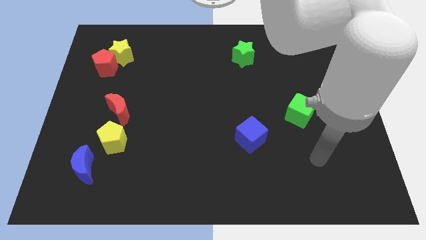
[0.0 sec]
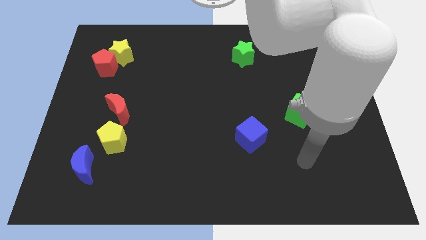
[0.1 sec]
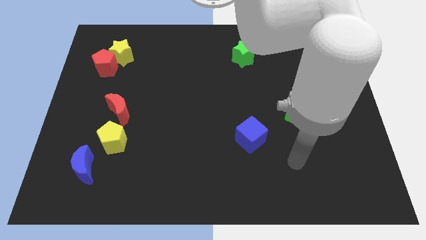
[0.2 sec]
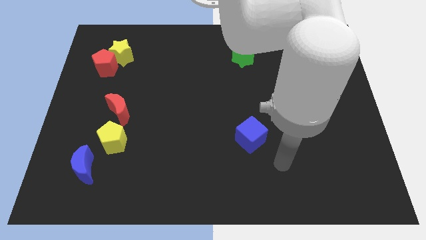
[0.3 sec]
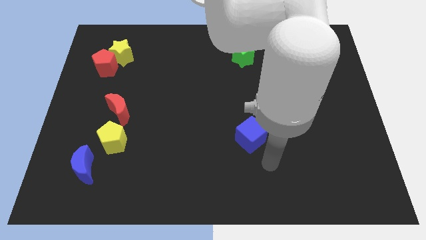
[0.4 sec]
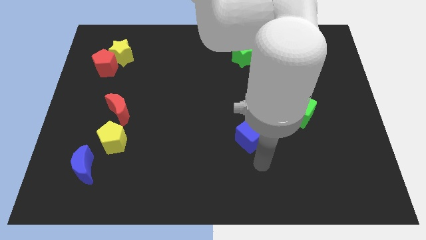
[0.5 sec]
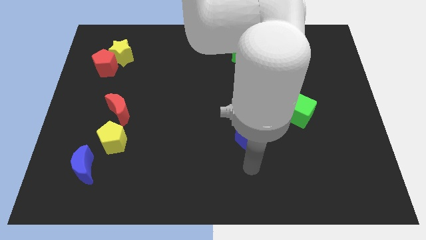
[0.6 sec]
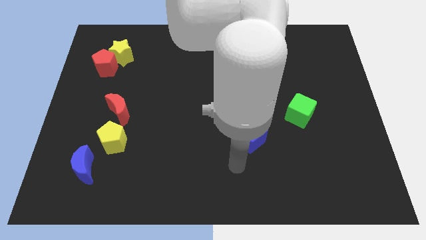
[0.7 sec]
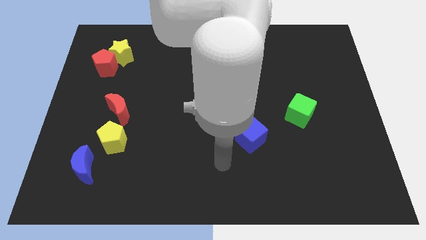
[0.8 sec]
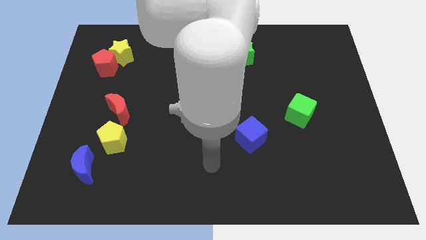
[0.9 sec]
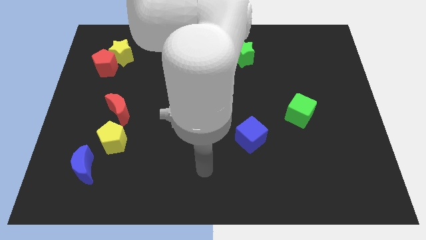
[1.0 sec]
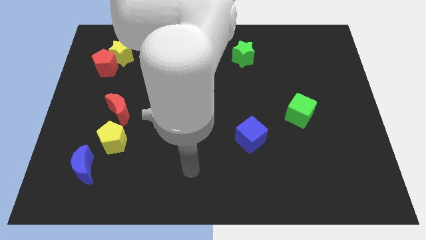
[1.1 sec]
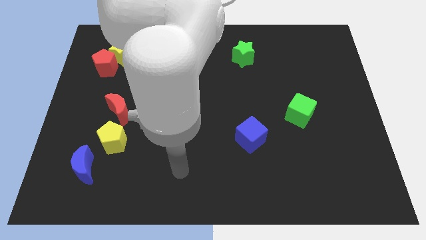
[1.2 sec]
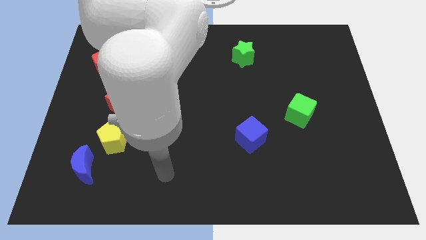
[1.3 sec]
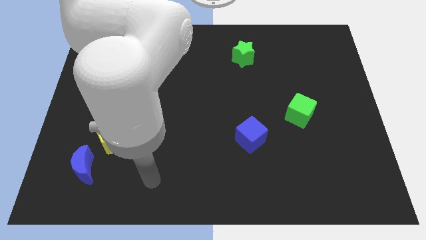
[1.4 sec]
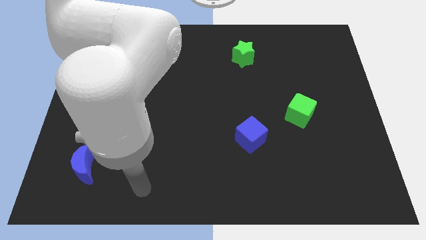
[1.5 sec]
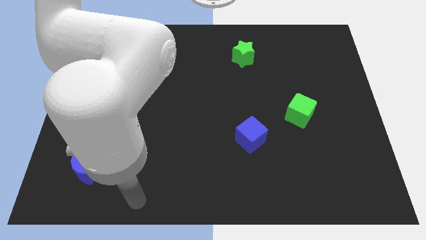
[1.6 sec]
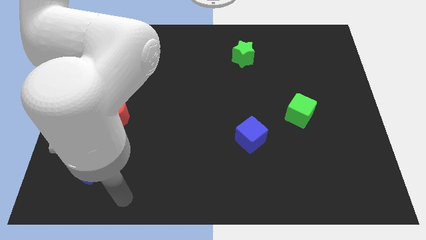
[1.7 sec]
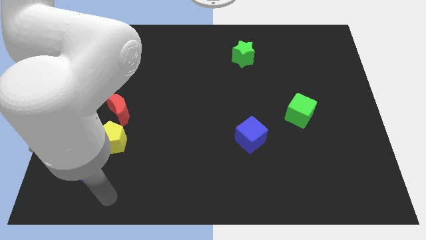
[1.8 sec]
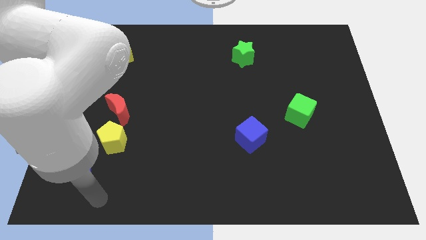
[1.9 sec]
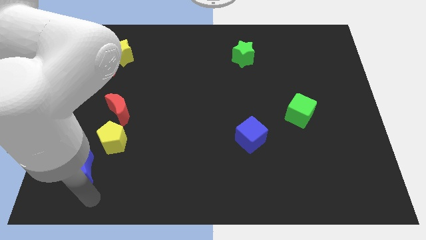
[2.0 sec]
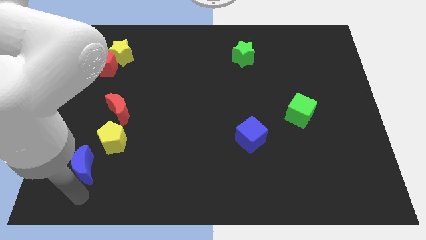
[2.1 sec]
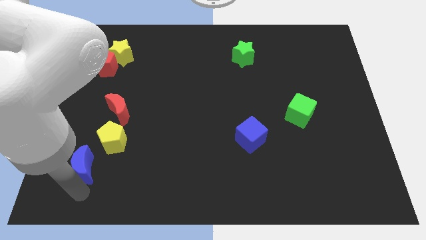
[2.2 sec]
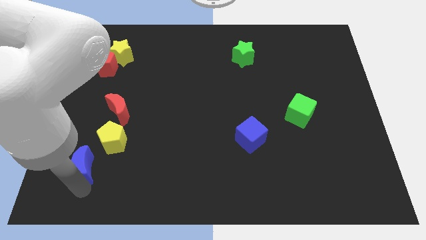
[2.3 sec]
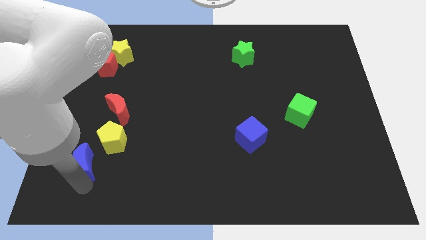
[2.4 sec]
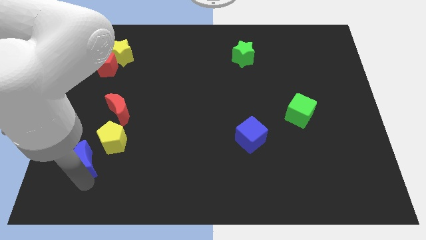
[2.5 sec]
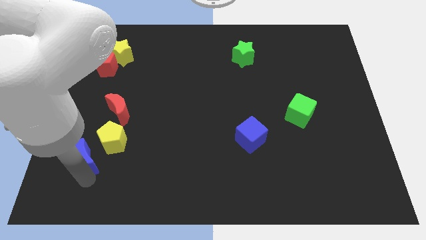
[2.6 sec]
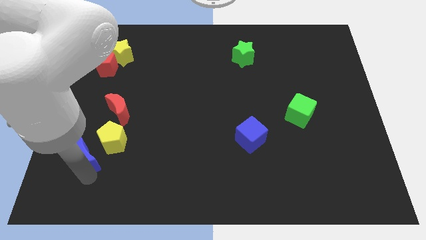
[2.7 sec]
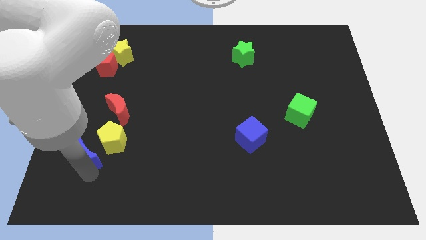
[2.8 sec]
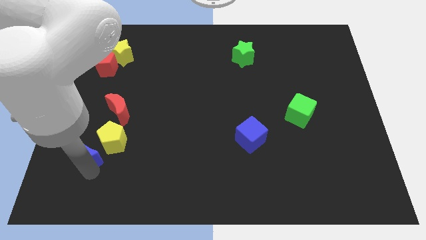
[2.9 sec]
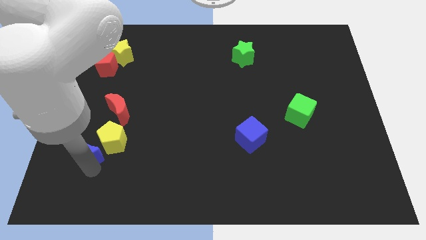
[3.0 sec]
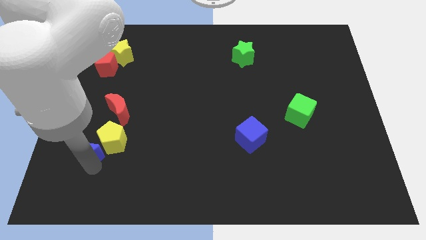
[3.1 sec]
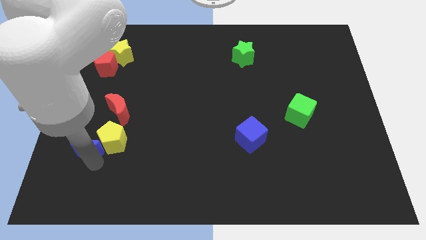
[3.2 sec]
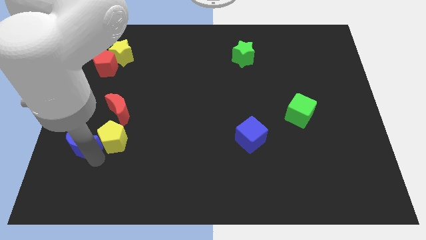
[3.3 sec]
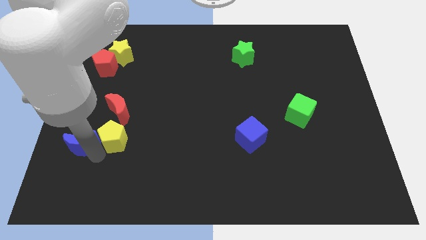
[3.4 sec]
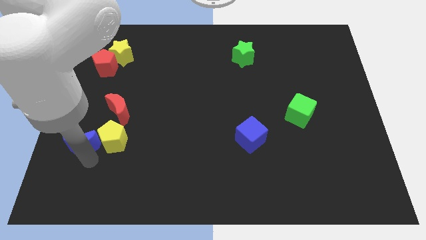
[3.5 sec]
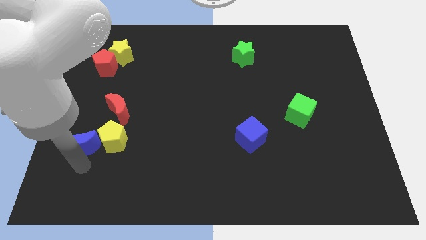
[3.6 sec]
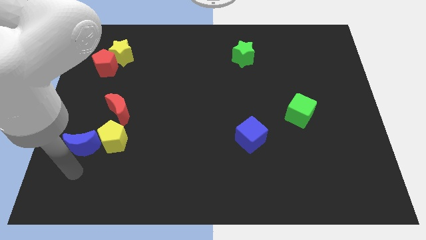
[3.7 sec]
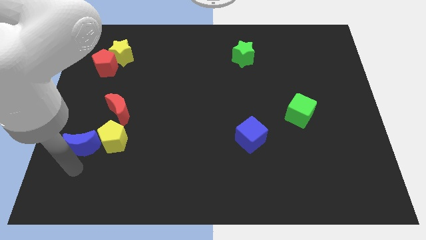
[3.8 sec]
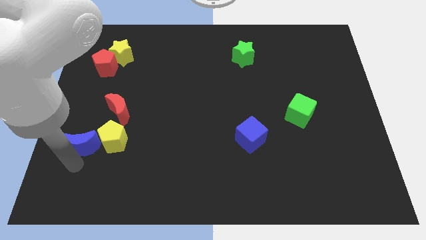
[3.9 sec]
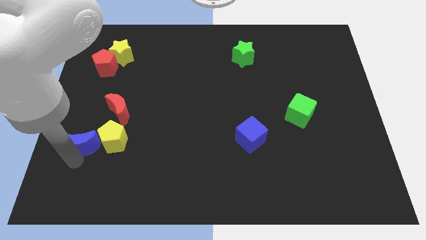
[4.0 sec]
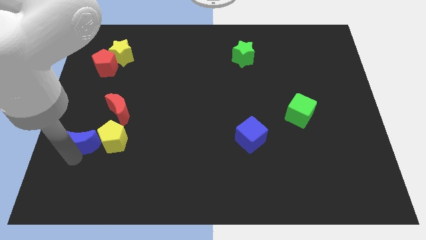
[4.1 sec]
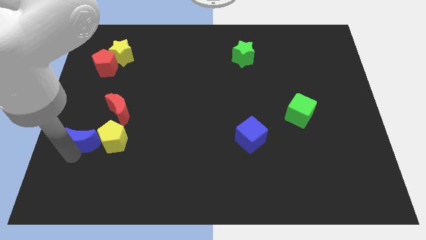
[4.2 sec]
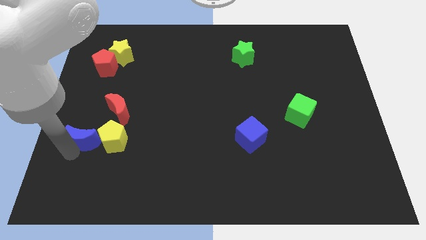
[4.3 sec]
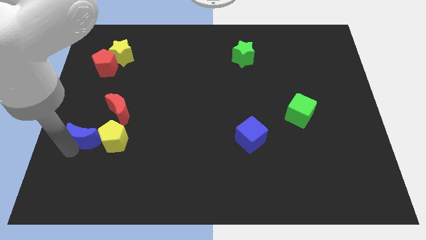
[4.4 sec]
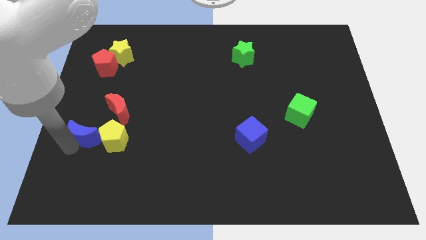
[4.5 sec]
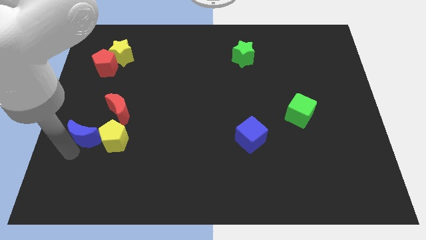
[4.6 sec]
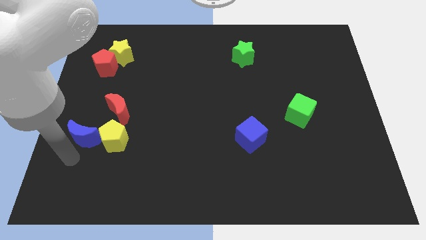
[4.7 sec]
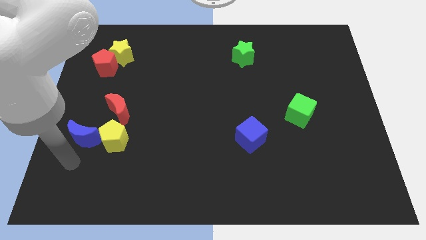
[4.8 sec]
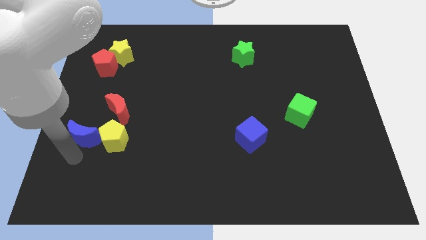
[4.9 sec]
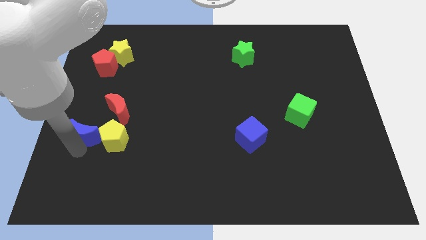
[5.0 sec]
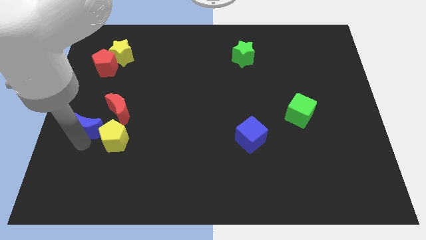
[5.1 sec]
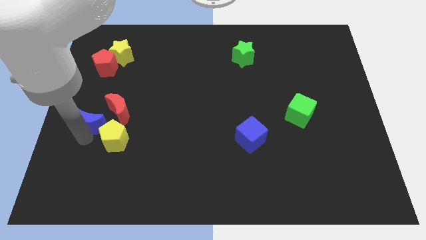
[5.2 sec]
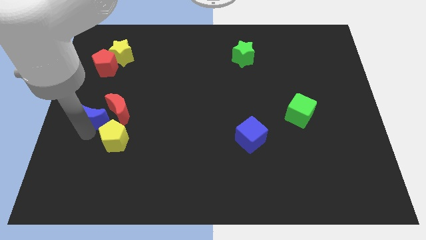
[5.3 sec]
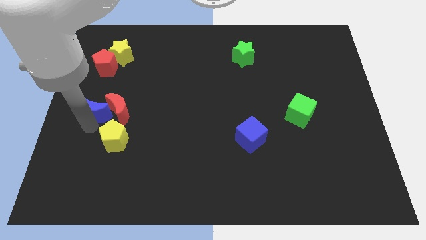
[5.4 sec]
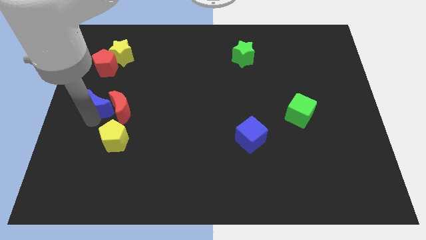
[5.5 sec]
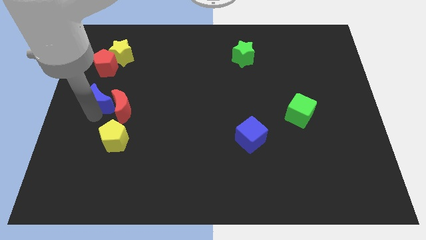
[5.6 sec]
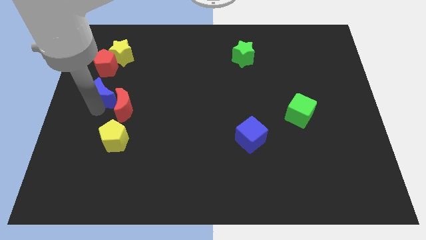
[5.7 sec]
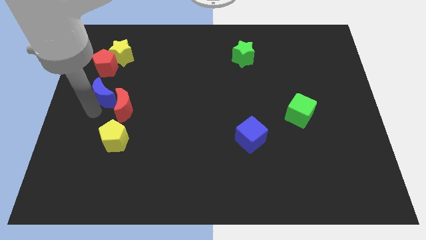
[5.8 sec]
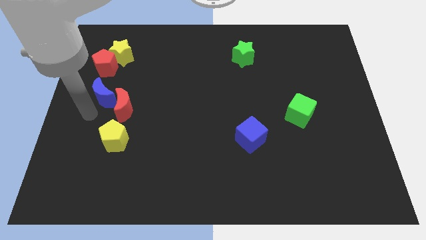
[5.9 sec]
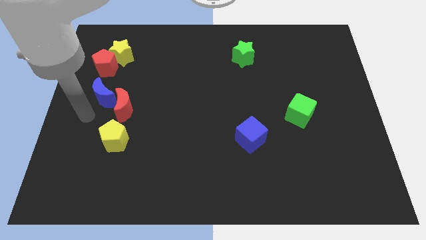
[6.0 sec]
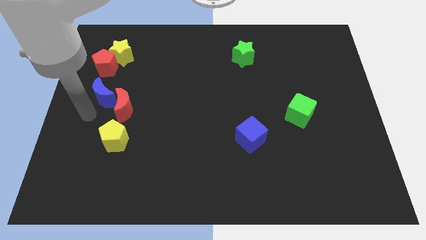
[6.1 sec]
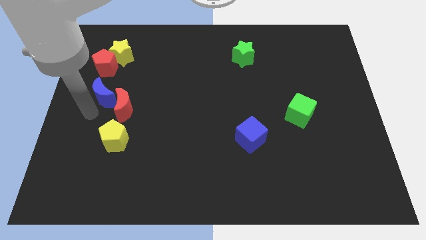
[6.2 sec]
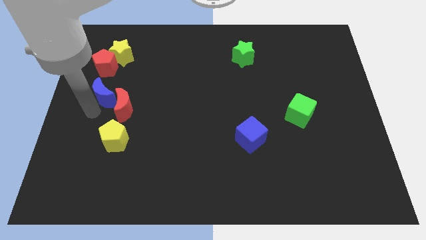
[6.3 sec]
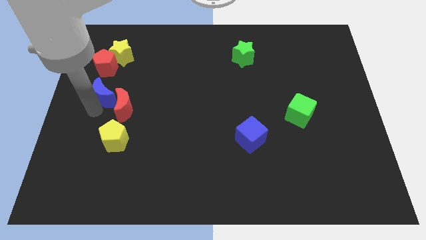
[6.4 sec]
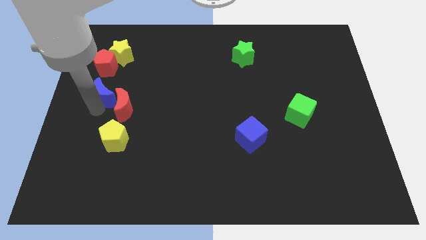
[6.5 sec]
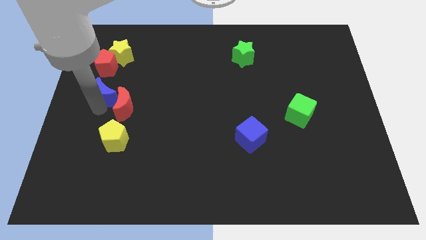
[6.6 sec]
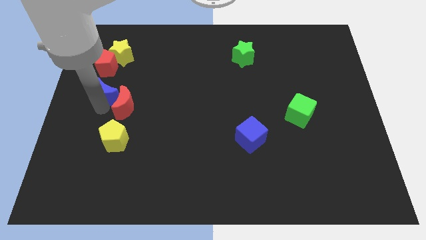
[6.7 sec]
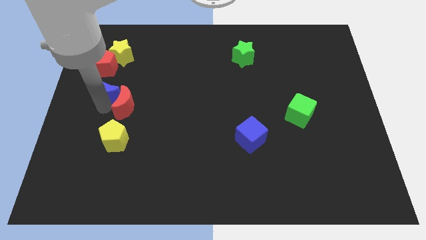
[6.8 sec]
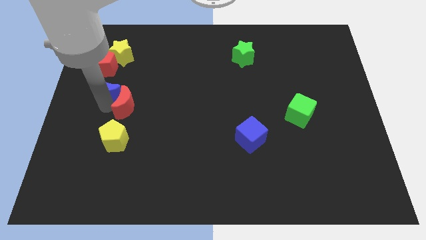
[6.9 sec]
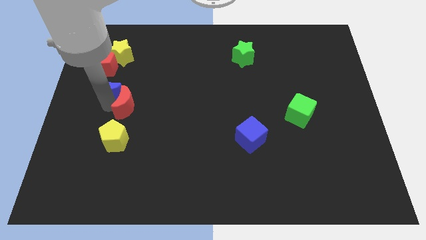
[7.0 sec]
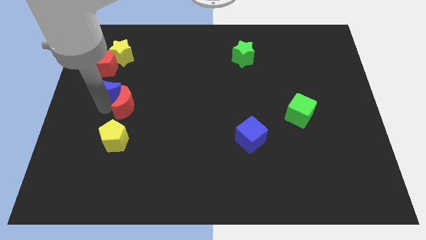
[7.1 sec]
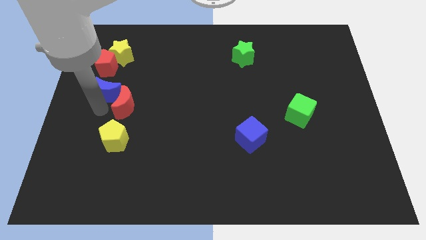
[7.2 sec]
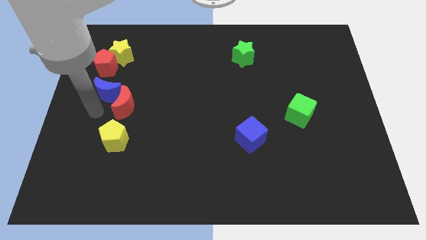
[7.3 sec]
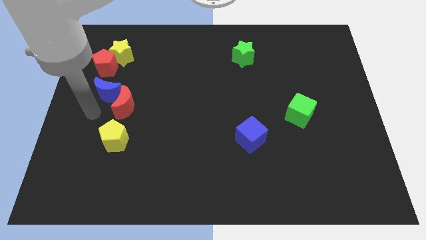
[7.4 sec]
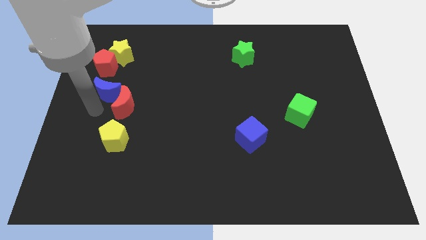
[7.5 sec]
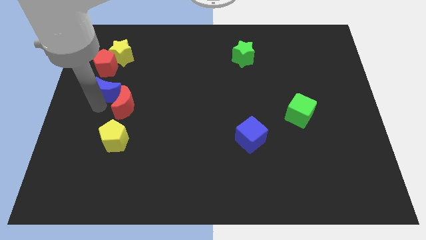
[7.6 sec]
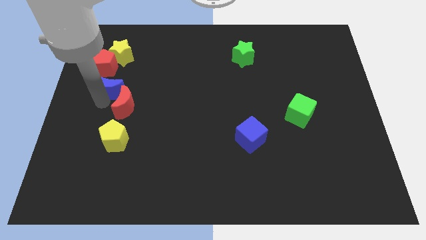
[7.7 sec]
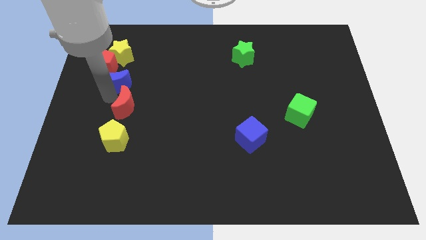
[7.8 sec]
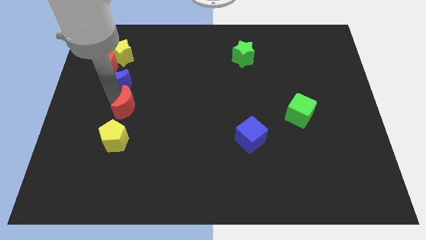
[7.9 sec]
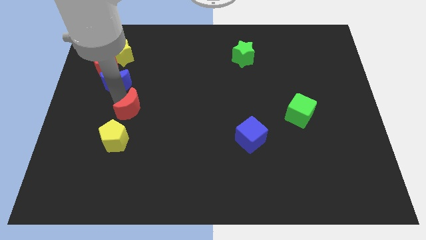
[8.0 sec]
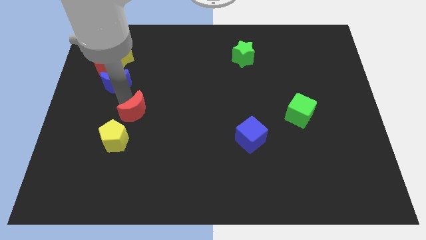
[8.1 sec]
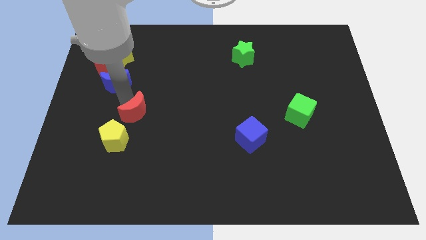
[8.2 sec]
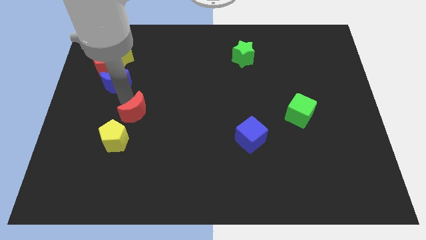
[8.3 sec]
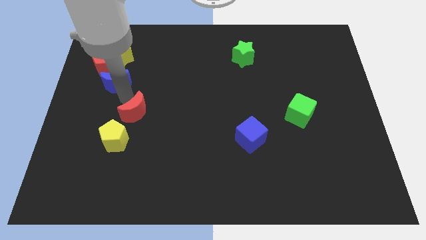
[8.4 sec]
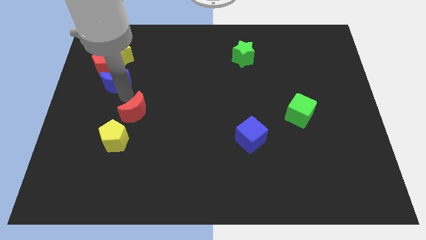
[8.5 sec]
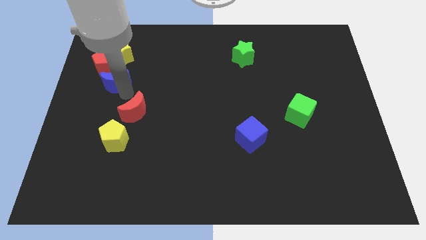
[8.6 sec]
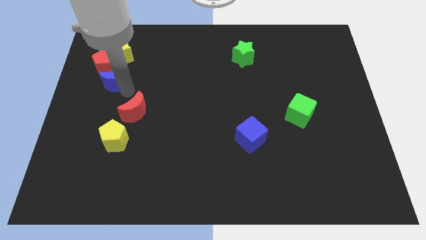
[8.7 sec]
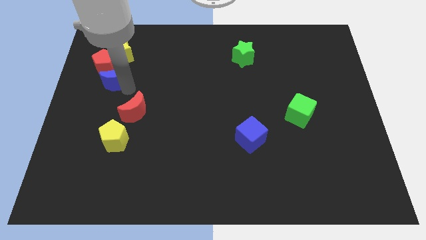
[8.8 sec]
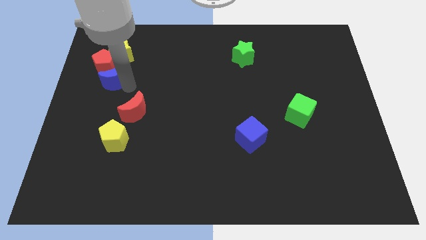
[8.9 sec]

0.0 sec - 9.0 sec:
slide the blue moon to the red pentagon
